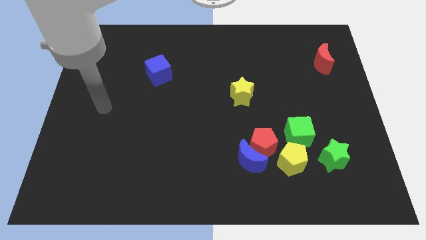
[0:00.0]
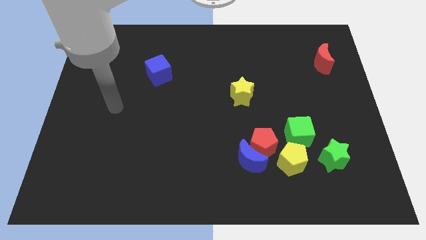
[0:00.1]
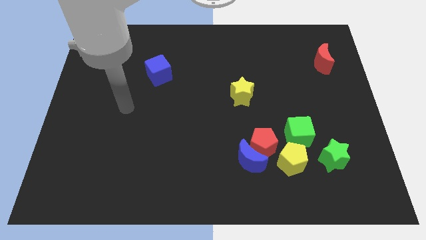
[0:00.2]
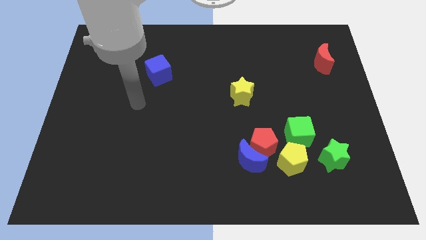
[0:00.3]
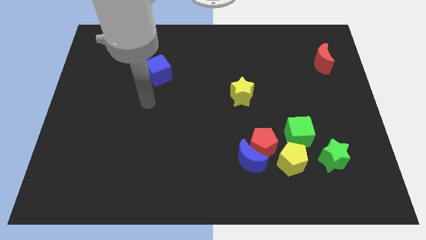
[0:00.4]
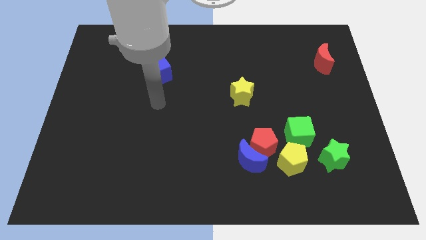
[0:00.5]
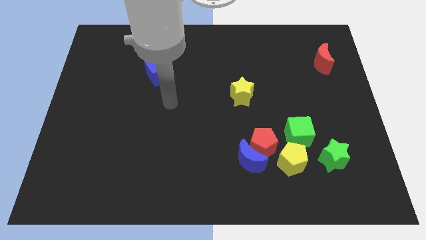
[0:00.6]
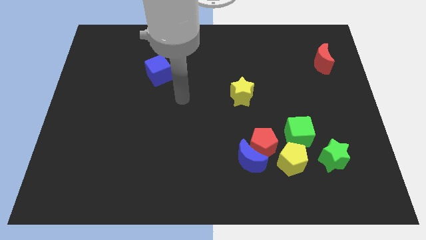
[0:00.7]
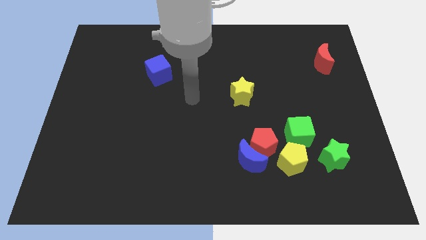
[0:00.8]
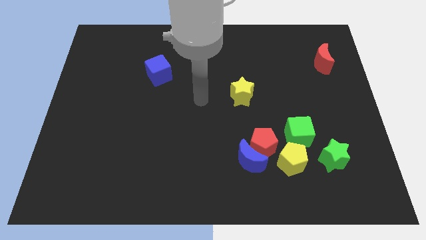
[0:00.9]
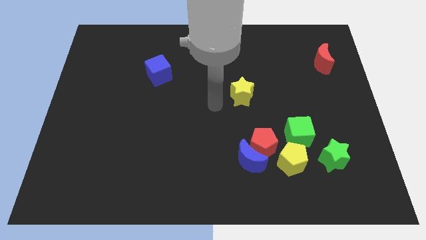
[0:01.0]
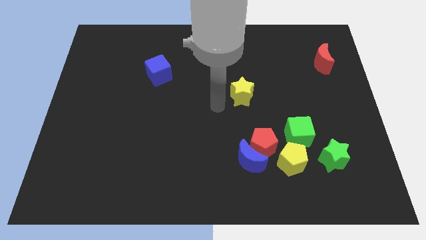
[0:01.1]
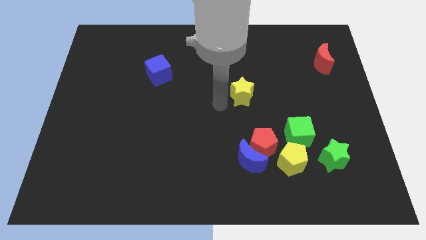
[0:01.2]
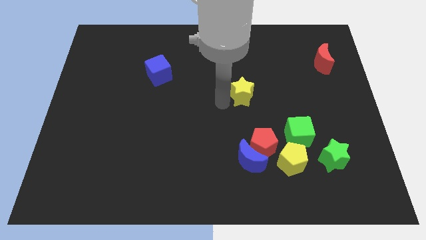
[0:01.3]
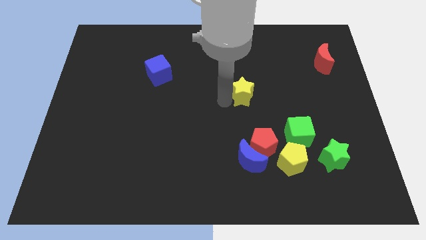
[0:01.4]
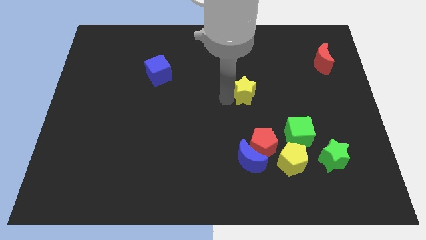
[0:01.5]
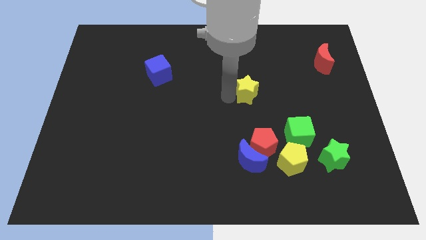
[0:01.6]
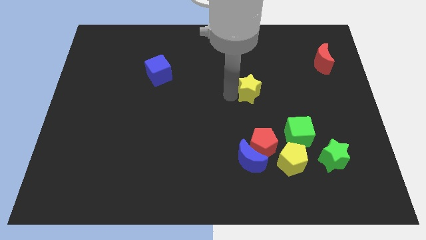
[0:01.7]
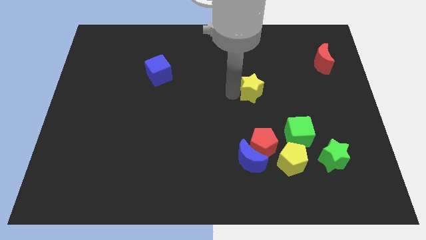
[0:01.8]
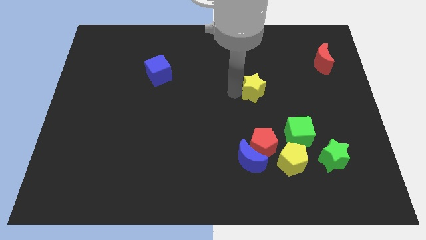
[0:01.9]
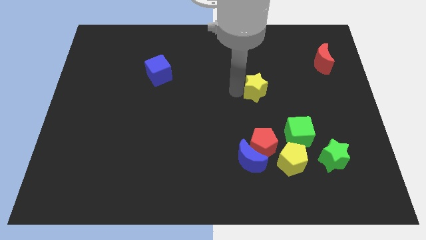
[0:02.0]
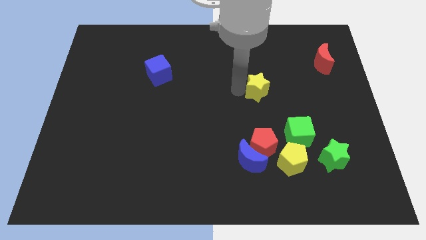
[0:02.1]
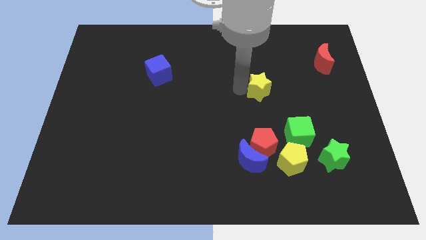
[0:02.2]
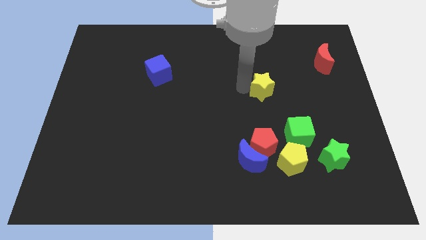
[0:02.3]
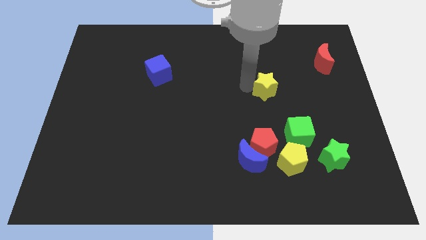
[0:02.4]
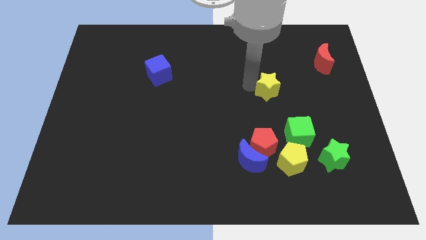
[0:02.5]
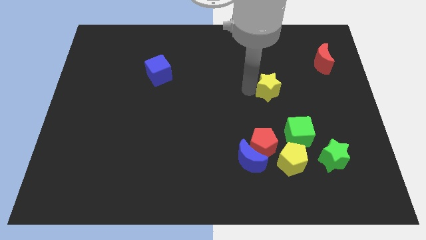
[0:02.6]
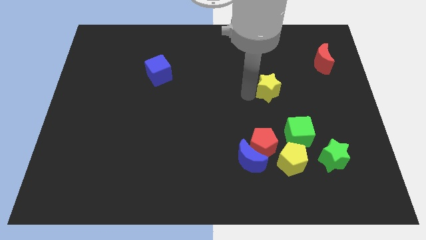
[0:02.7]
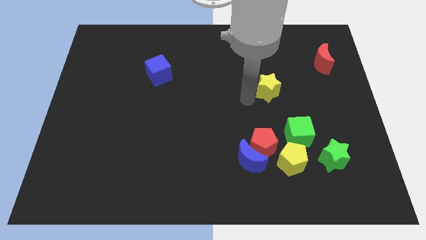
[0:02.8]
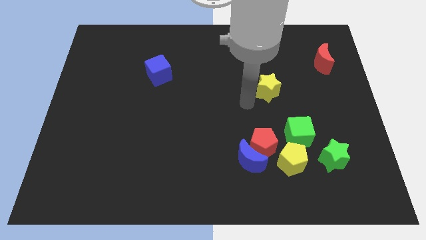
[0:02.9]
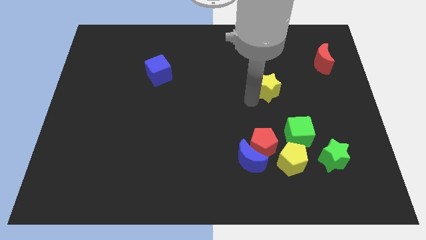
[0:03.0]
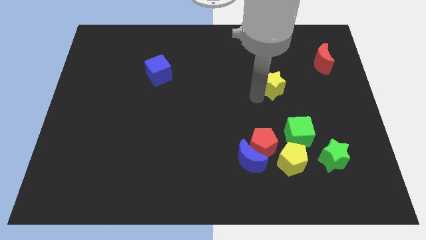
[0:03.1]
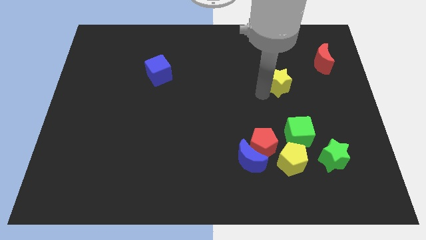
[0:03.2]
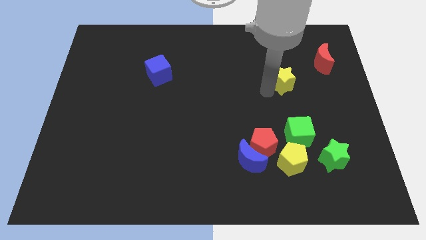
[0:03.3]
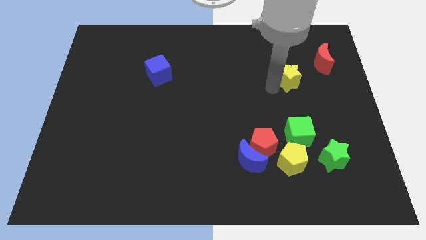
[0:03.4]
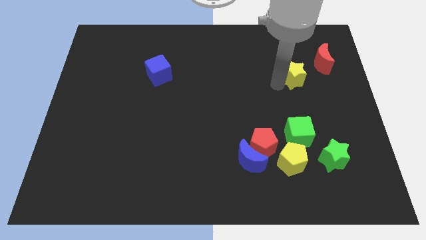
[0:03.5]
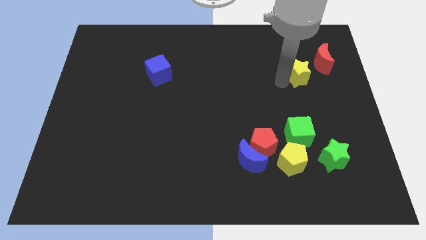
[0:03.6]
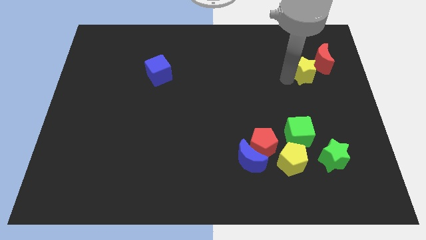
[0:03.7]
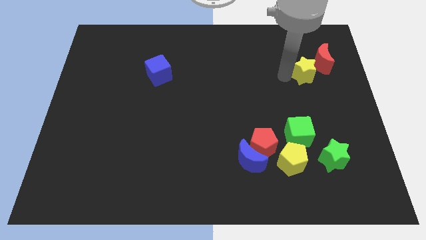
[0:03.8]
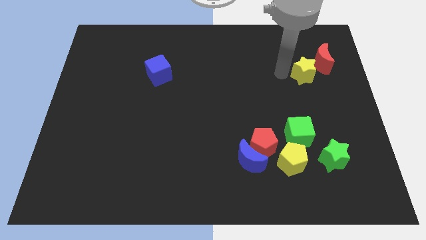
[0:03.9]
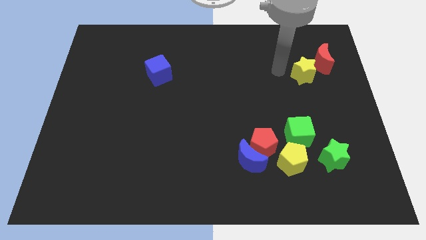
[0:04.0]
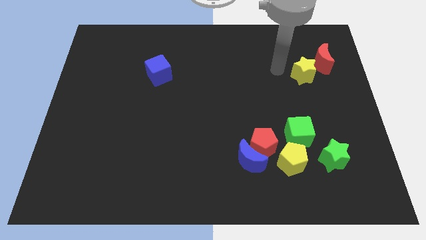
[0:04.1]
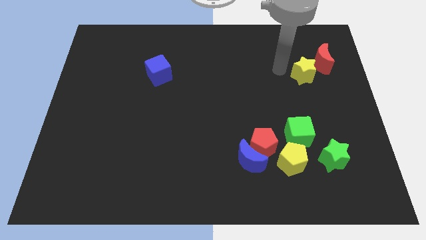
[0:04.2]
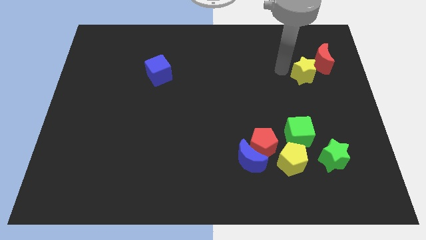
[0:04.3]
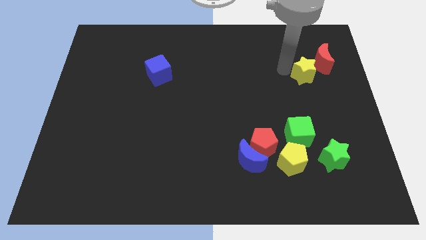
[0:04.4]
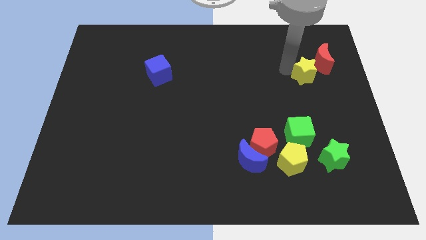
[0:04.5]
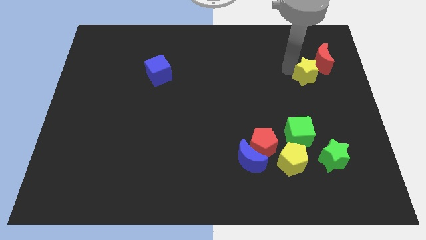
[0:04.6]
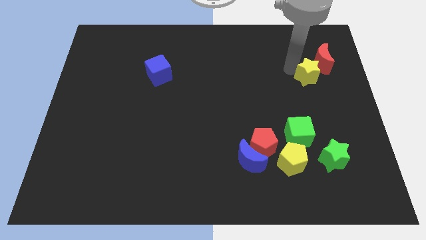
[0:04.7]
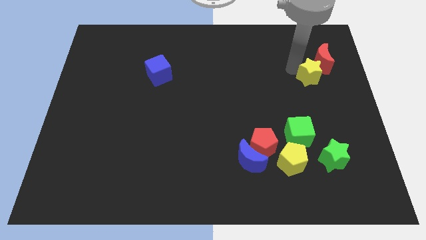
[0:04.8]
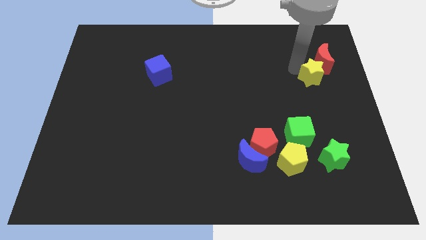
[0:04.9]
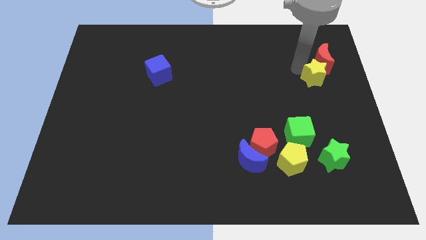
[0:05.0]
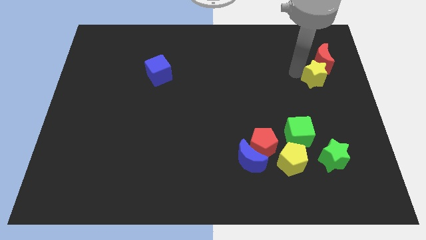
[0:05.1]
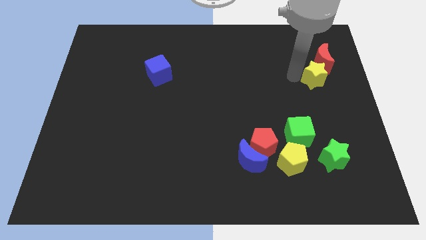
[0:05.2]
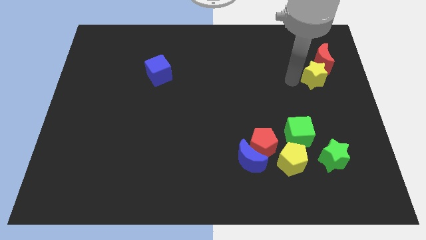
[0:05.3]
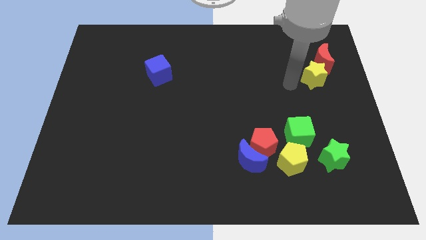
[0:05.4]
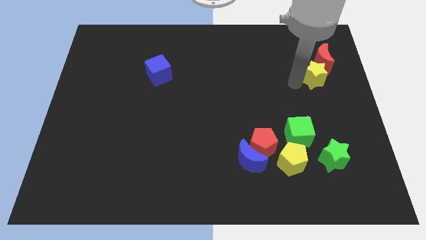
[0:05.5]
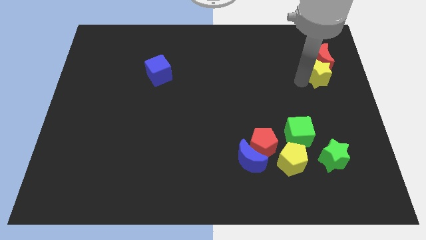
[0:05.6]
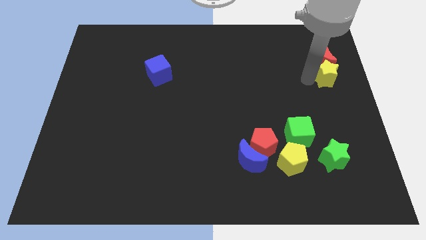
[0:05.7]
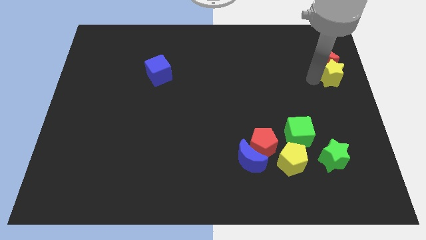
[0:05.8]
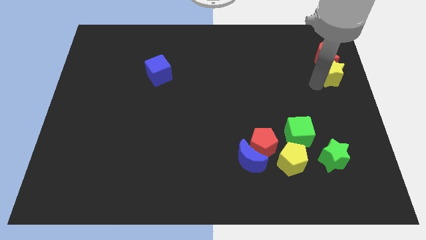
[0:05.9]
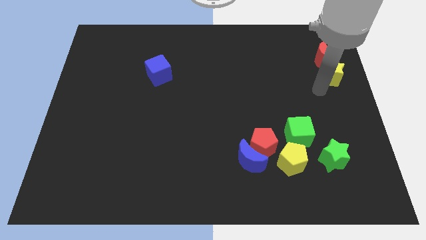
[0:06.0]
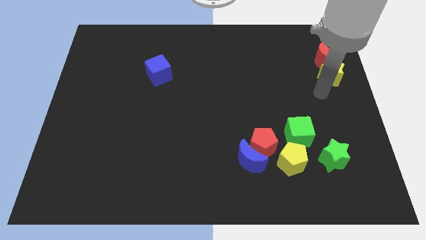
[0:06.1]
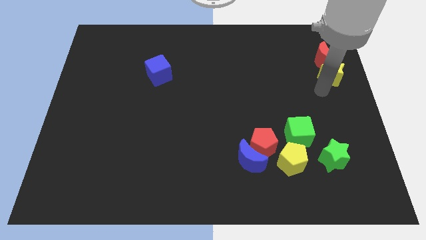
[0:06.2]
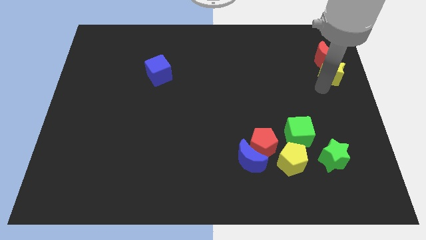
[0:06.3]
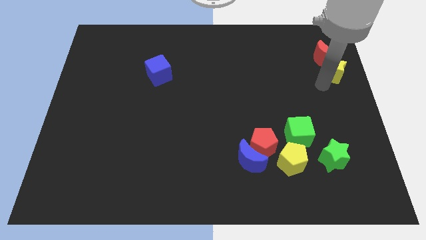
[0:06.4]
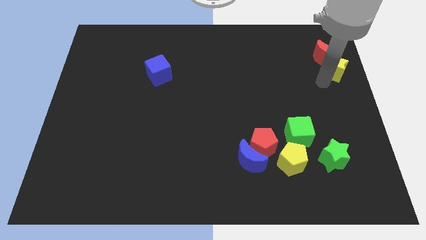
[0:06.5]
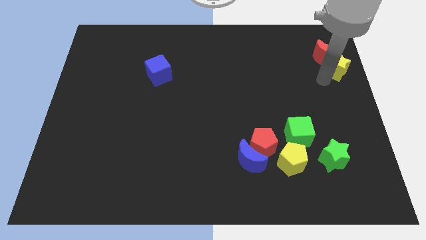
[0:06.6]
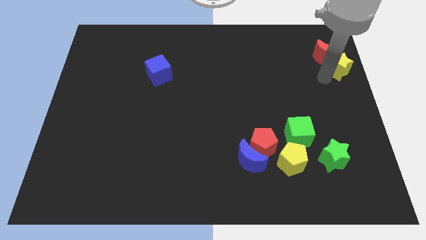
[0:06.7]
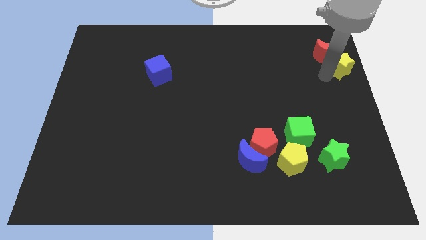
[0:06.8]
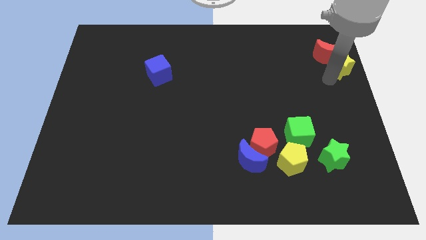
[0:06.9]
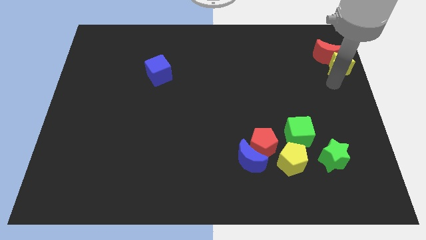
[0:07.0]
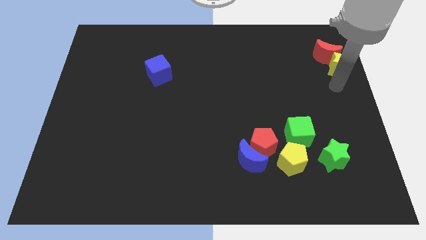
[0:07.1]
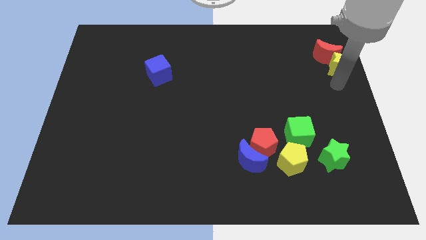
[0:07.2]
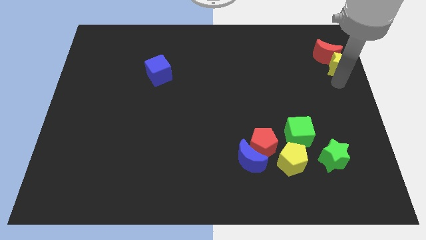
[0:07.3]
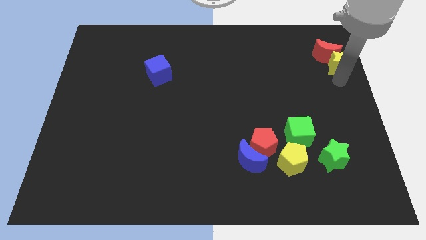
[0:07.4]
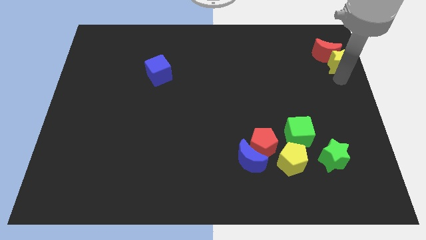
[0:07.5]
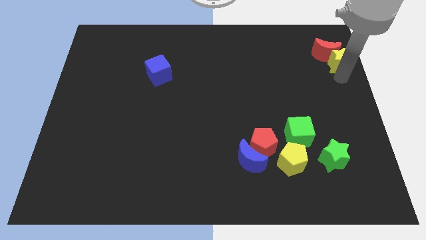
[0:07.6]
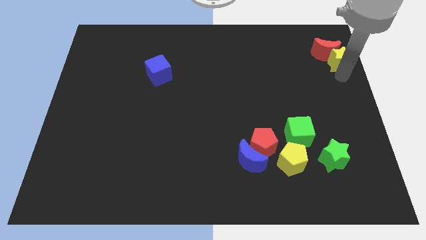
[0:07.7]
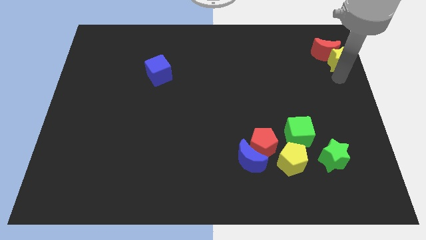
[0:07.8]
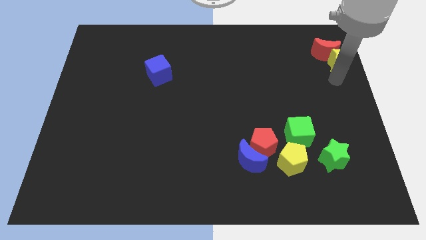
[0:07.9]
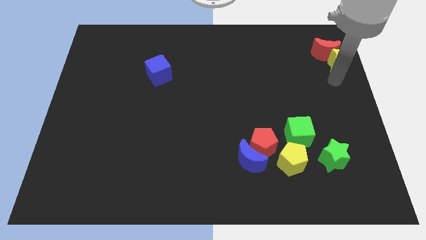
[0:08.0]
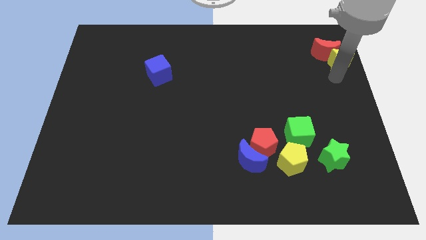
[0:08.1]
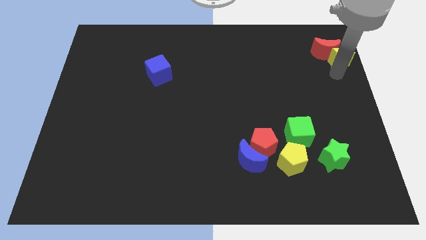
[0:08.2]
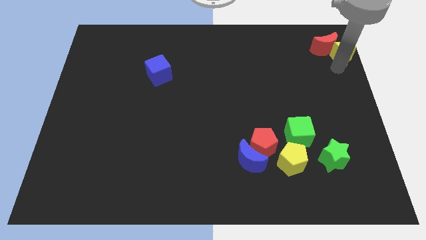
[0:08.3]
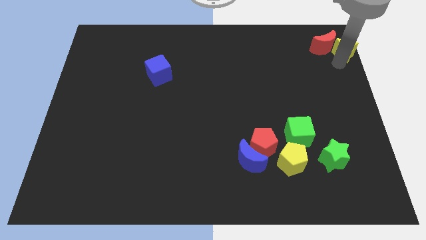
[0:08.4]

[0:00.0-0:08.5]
slide the yellow star to the upper right corner
